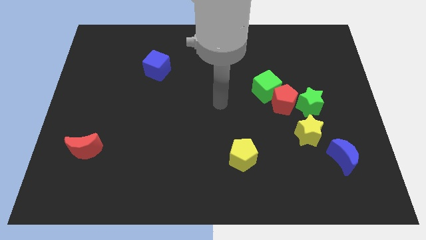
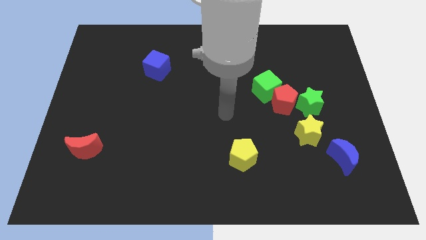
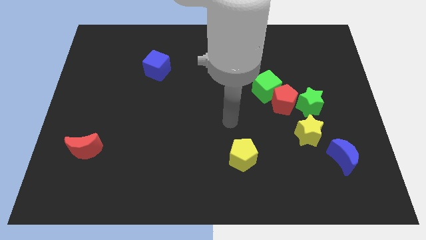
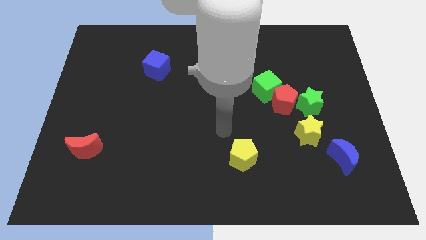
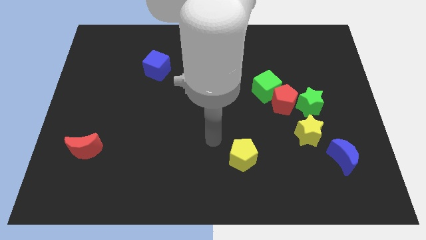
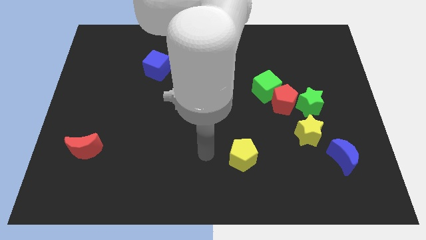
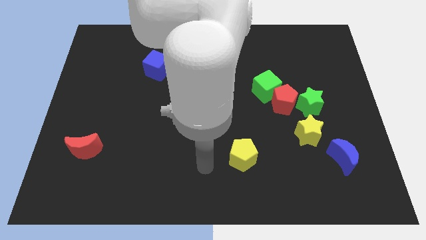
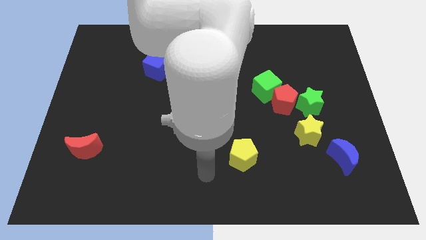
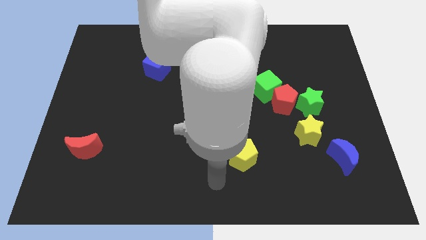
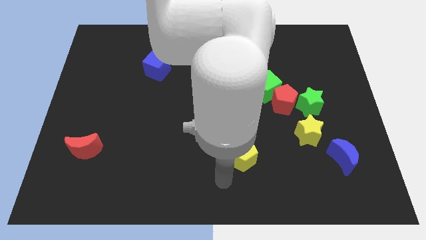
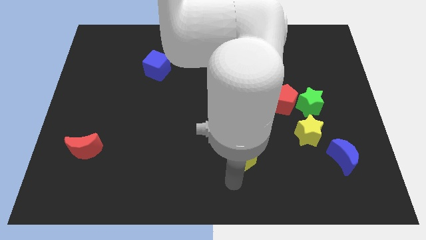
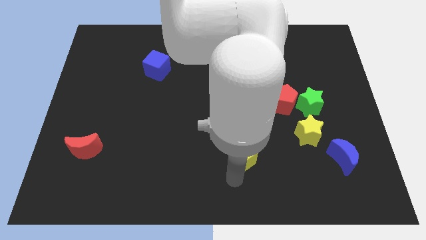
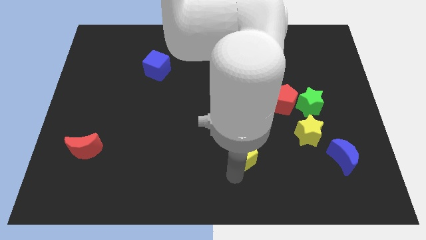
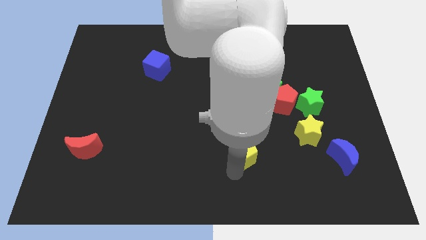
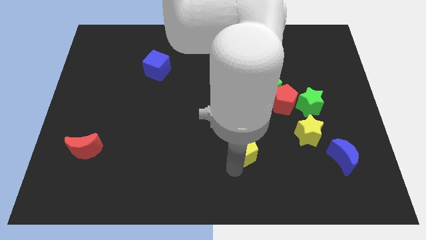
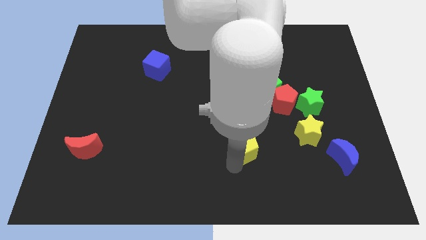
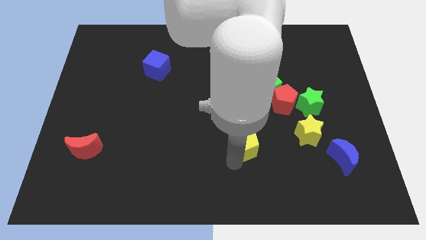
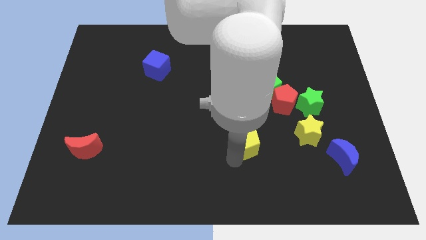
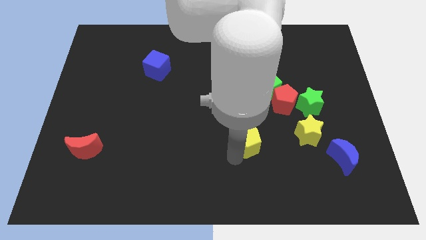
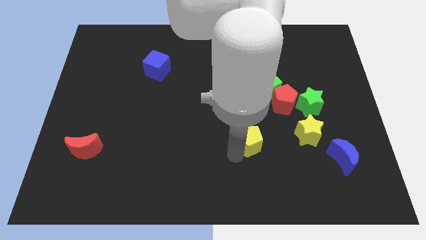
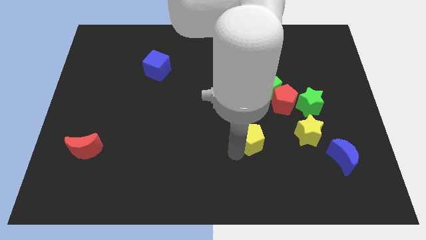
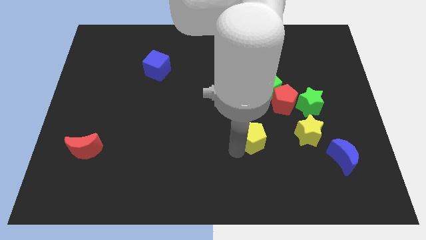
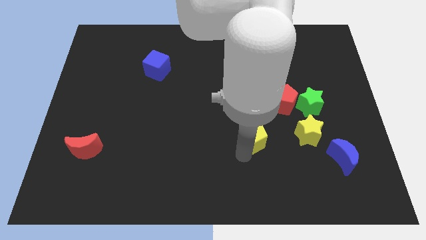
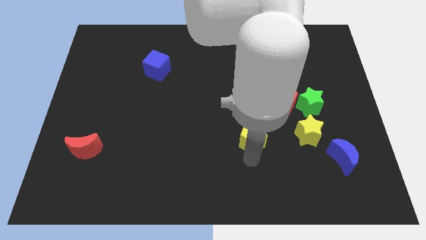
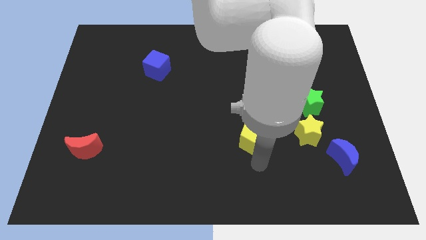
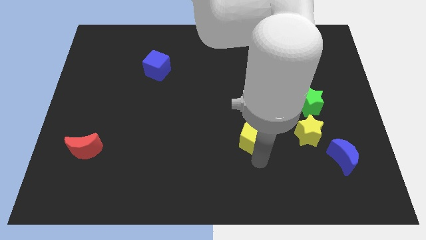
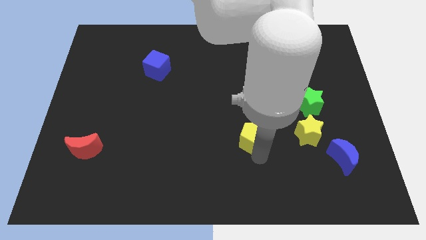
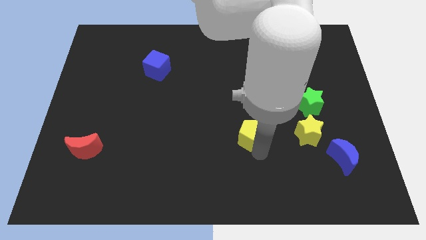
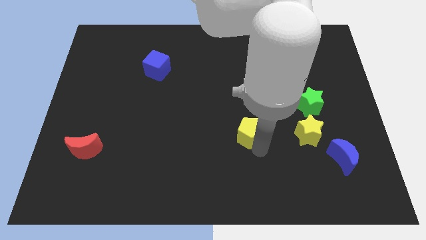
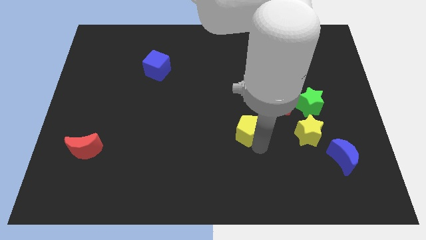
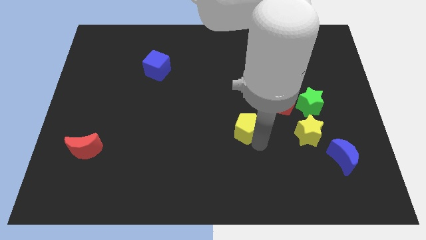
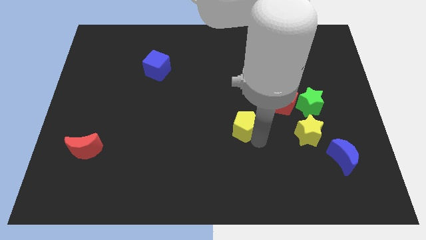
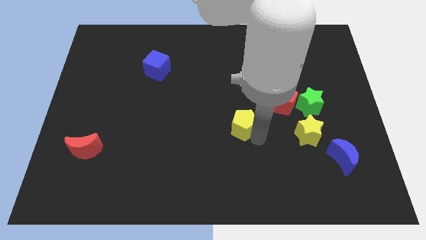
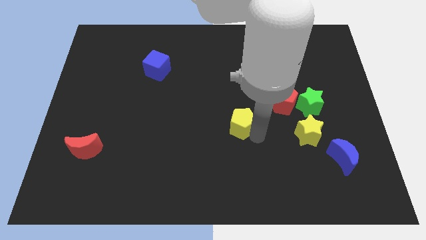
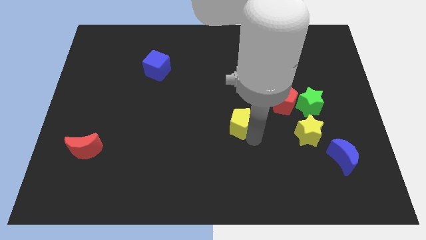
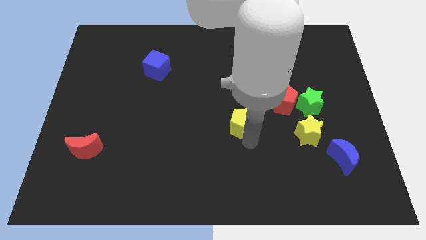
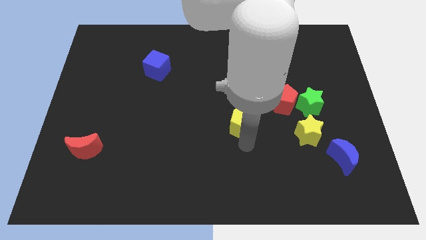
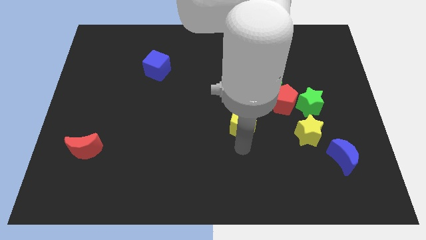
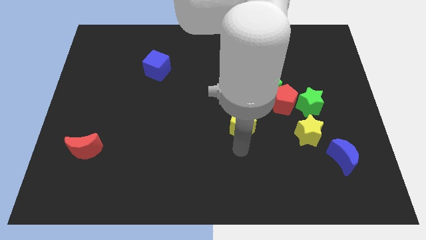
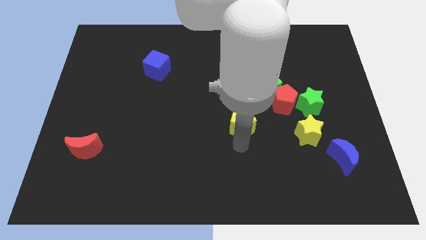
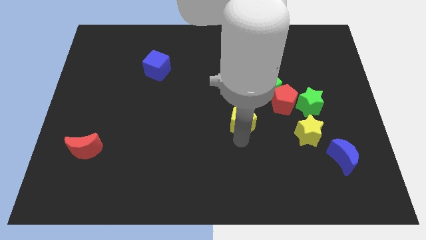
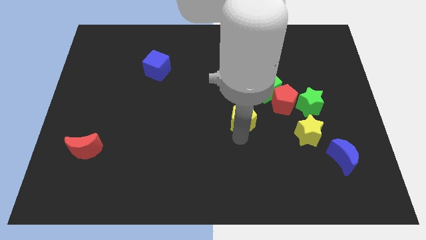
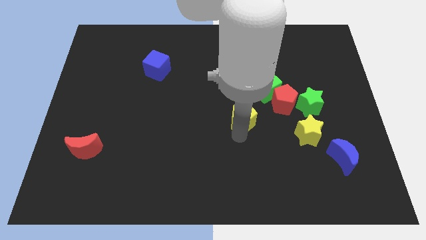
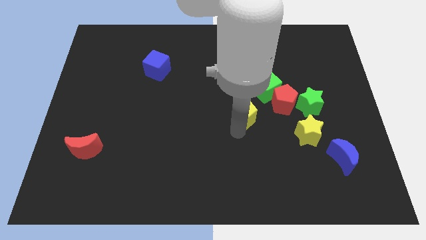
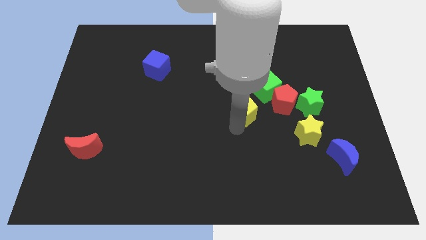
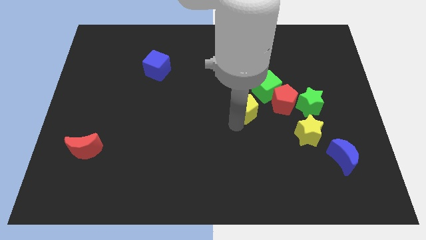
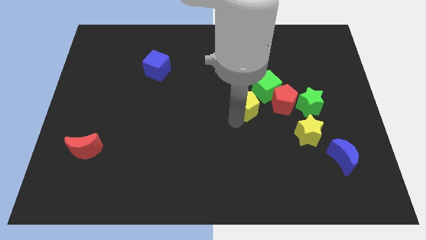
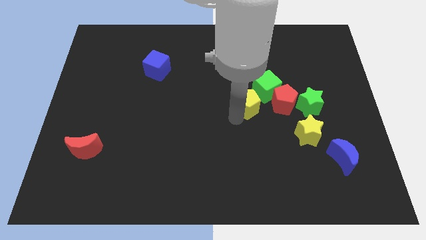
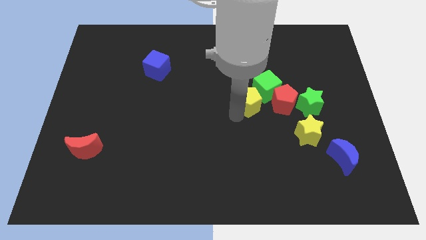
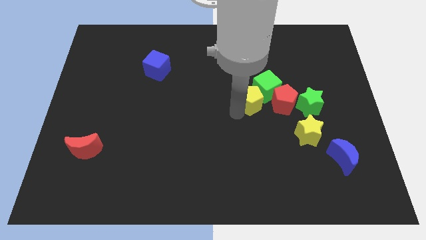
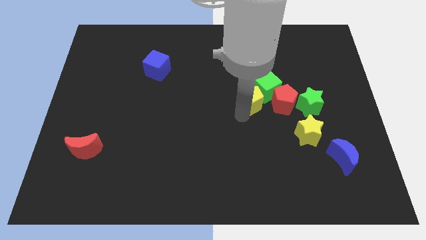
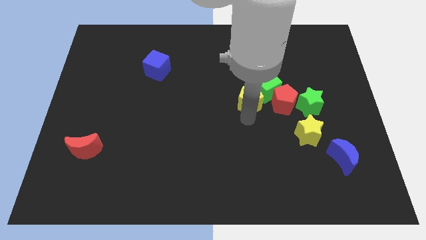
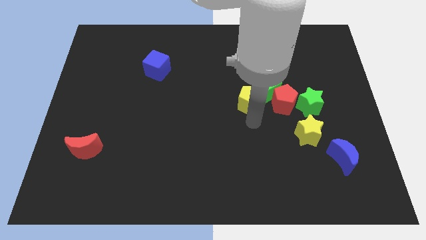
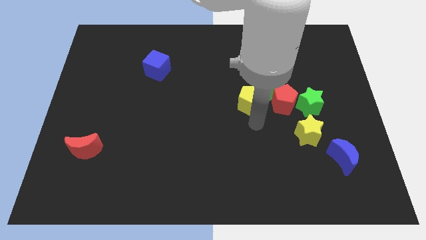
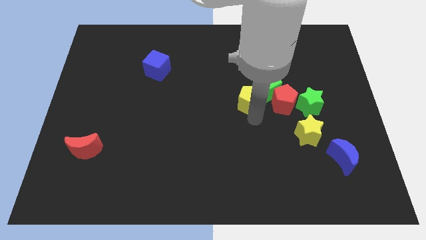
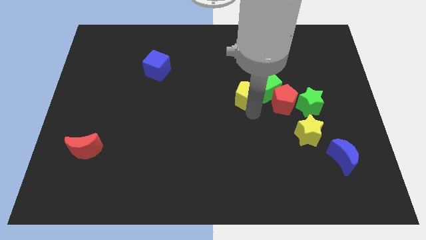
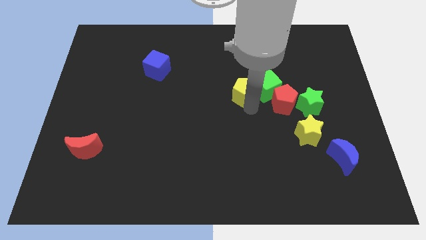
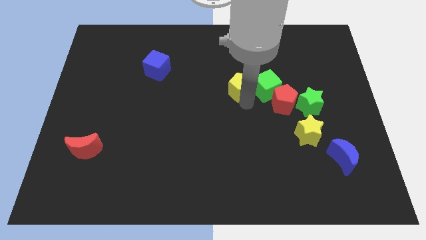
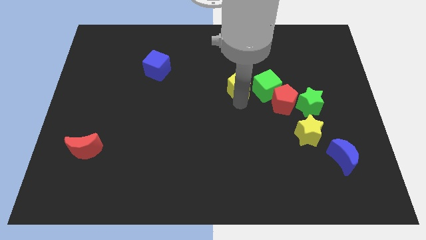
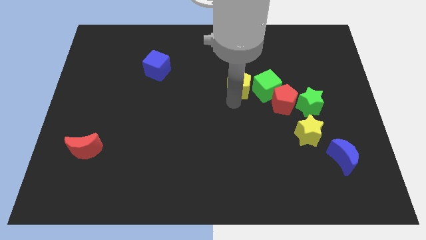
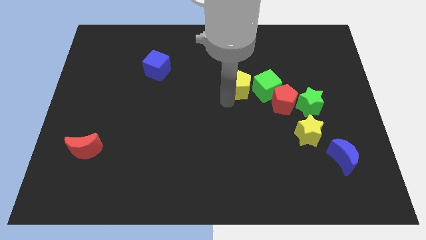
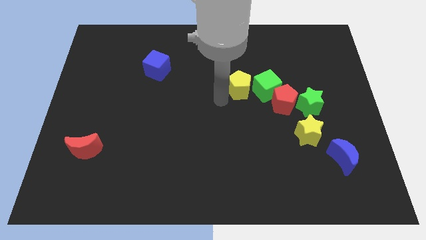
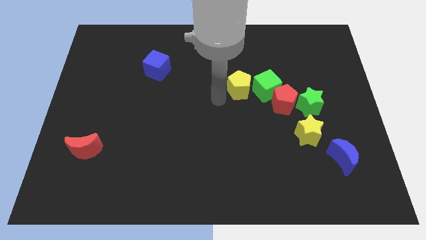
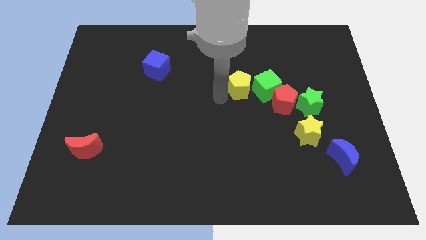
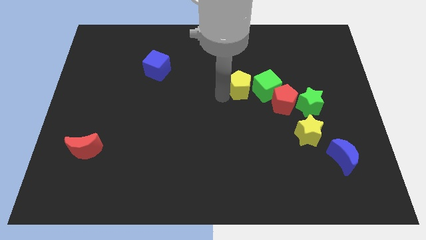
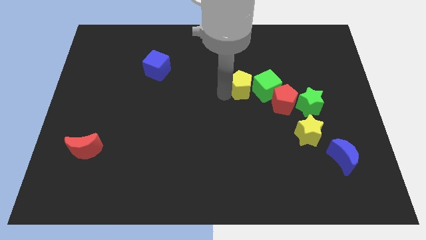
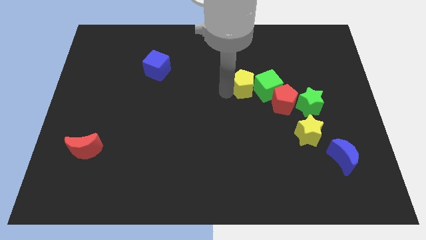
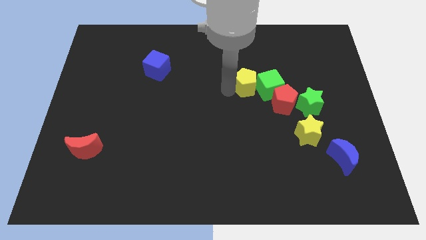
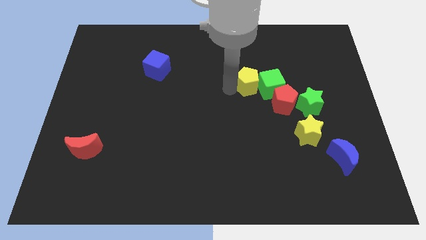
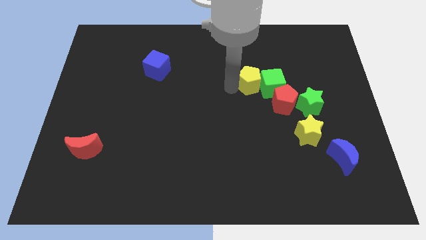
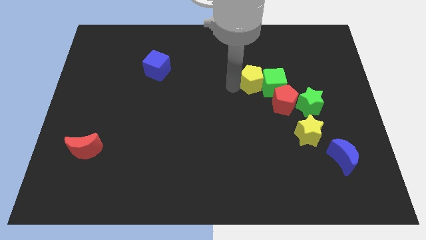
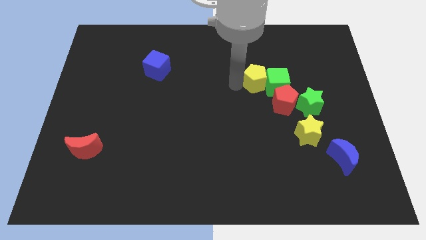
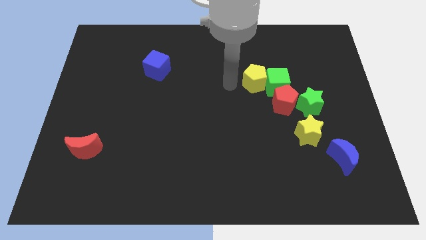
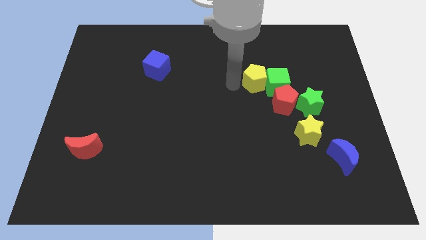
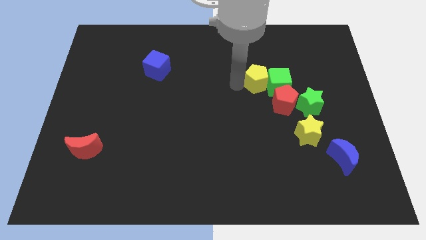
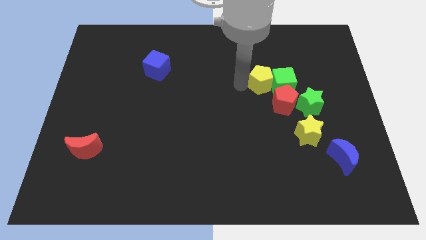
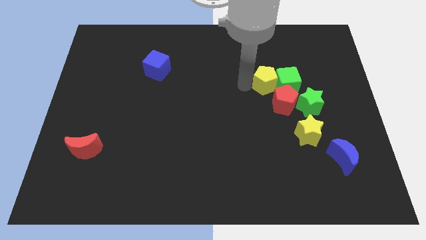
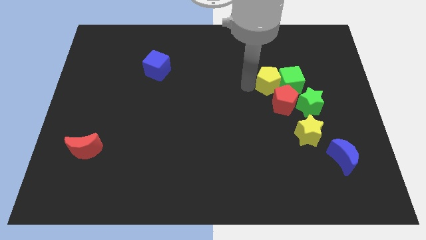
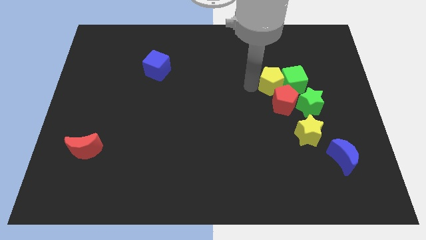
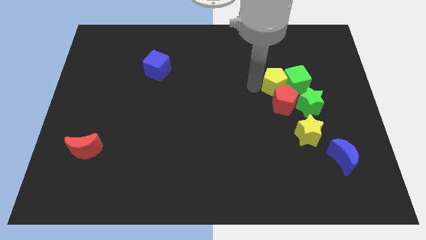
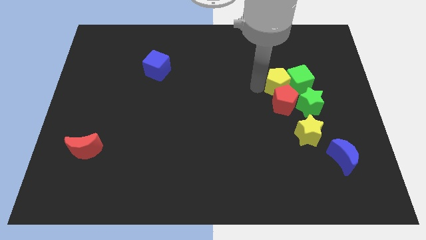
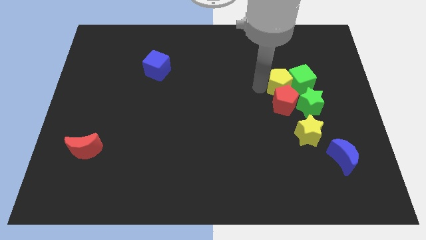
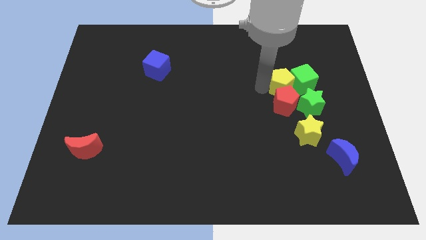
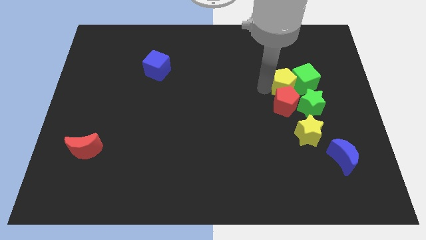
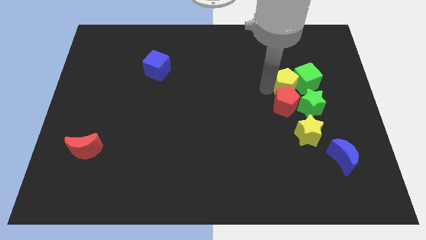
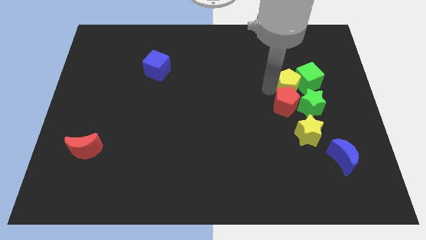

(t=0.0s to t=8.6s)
move the yellow pentagon to the top side of the green star
